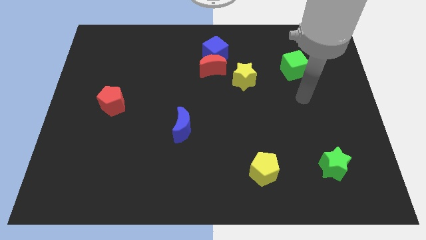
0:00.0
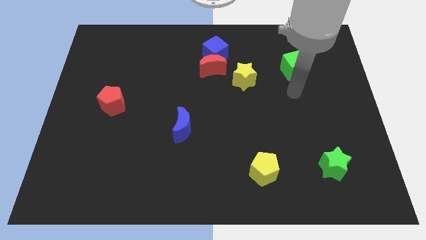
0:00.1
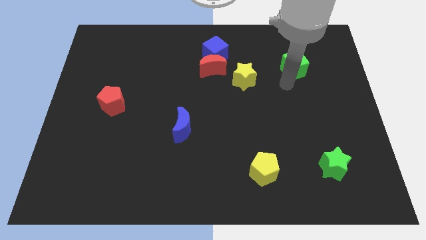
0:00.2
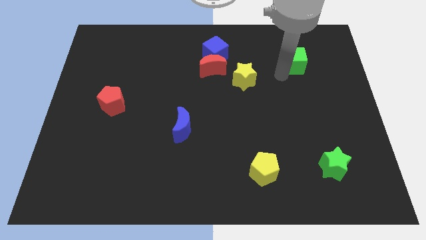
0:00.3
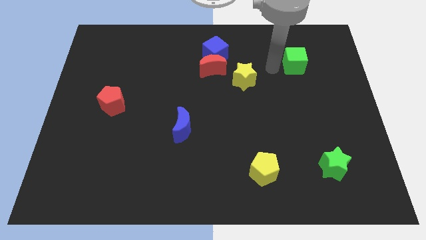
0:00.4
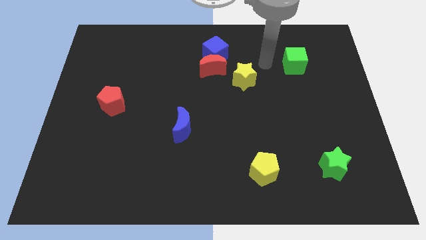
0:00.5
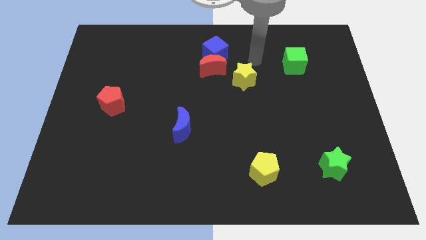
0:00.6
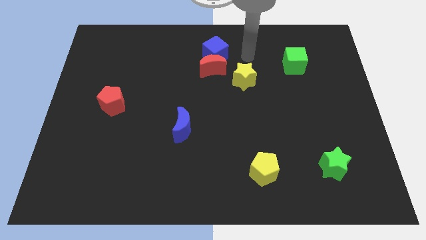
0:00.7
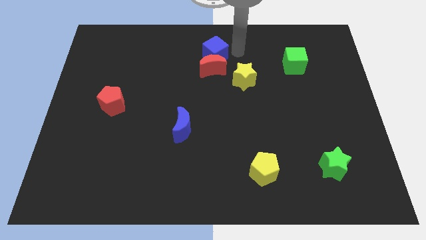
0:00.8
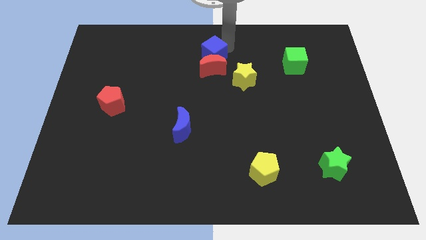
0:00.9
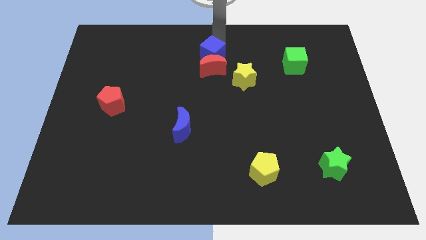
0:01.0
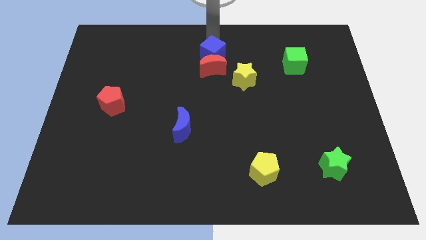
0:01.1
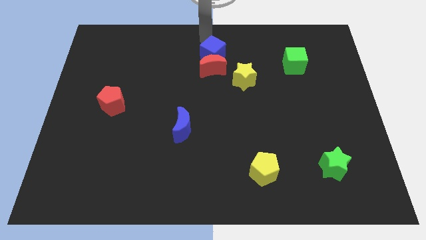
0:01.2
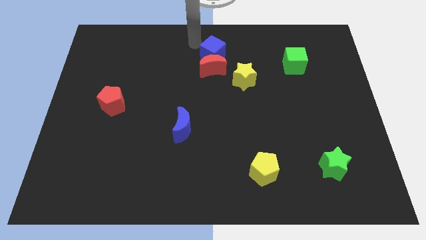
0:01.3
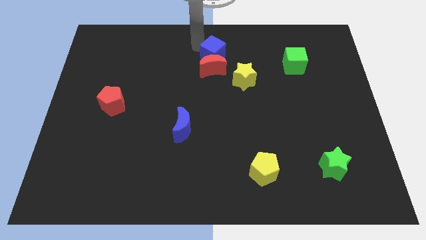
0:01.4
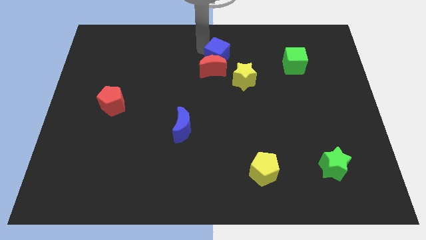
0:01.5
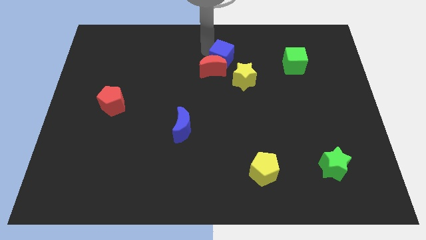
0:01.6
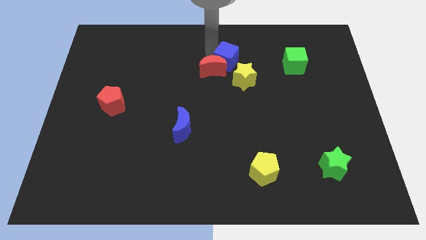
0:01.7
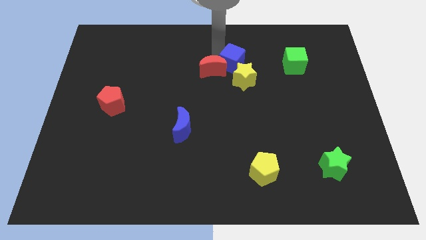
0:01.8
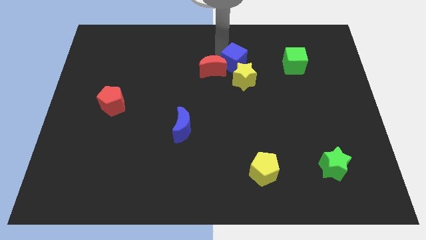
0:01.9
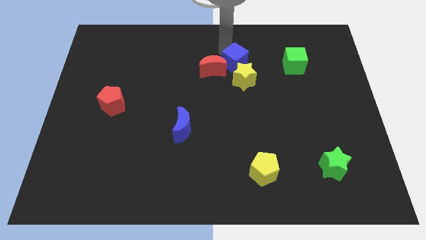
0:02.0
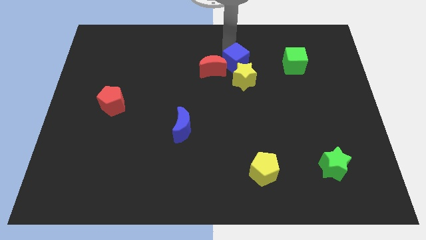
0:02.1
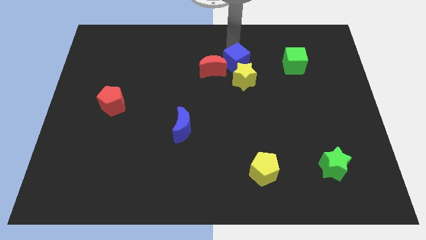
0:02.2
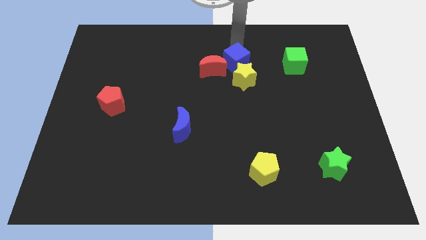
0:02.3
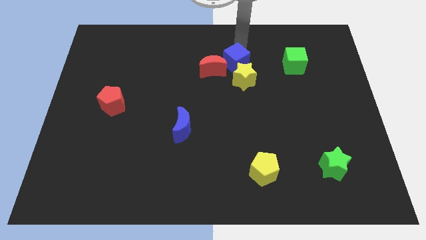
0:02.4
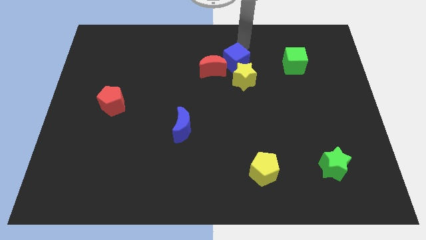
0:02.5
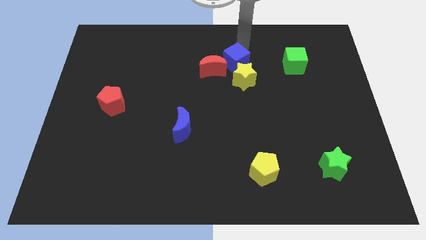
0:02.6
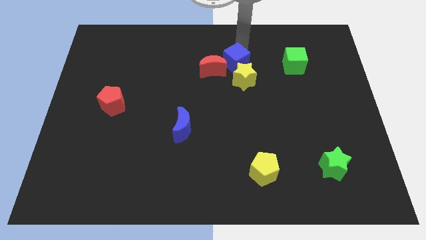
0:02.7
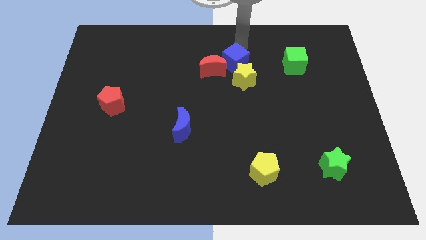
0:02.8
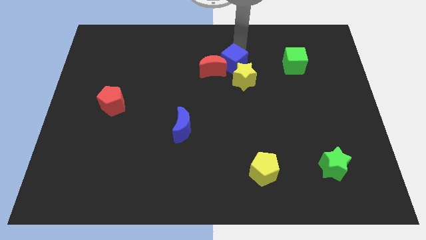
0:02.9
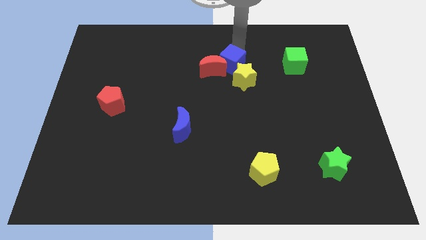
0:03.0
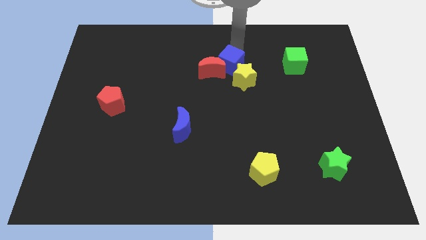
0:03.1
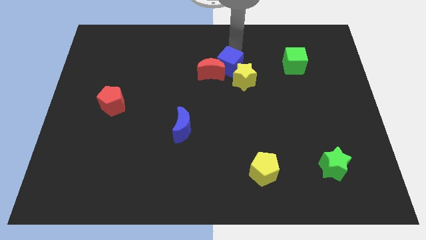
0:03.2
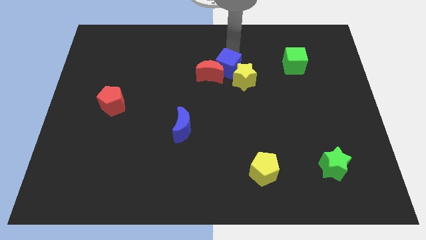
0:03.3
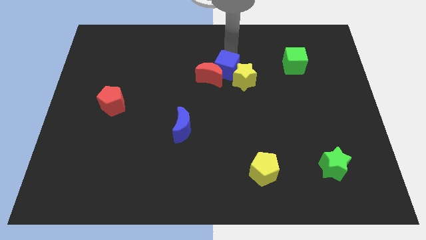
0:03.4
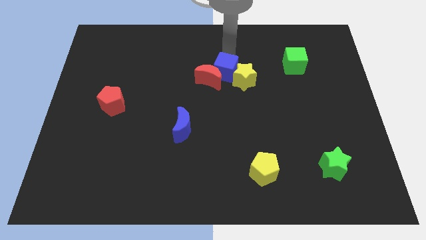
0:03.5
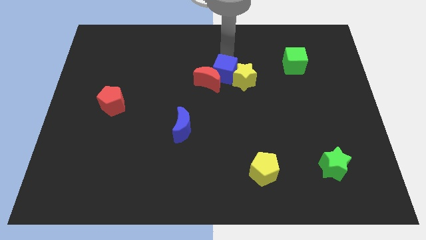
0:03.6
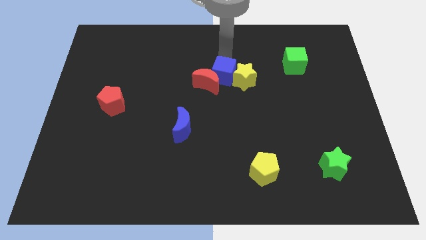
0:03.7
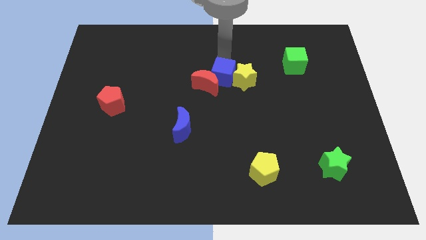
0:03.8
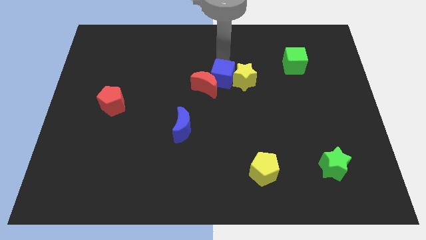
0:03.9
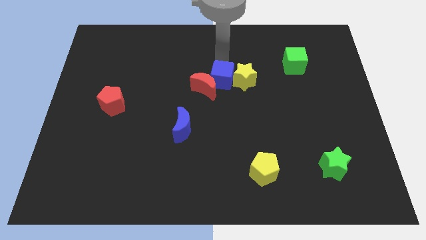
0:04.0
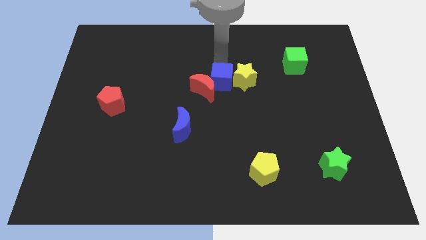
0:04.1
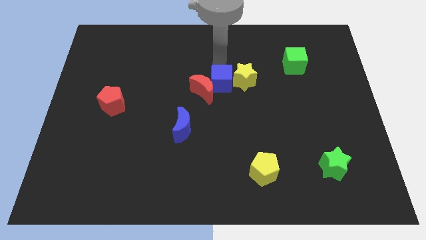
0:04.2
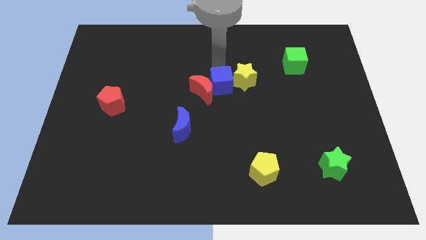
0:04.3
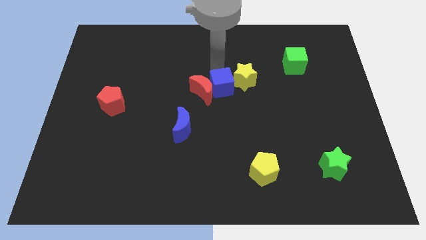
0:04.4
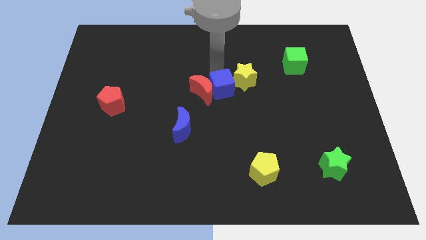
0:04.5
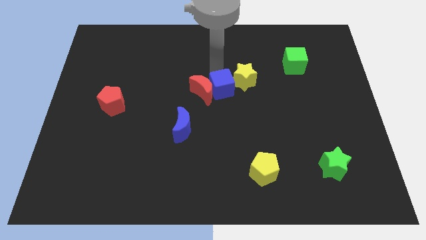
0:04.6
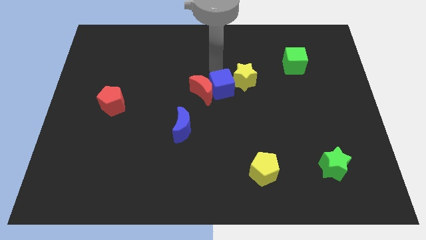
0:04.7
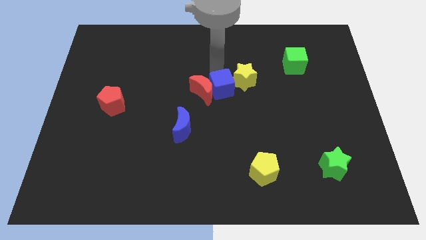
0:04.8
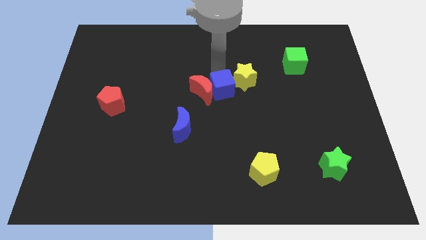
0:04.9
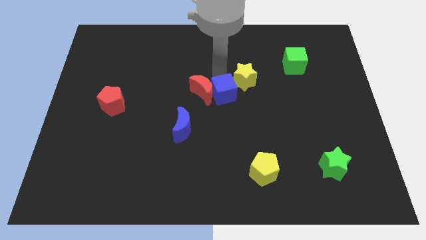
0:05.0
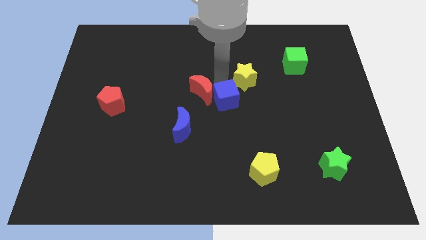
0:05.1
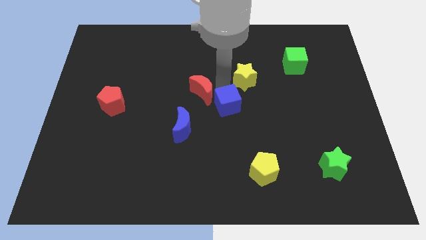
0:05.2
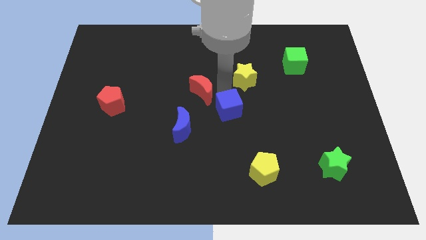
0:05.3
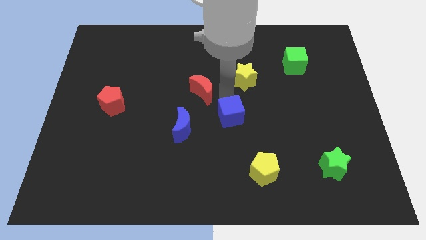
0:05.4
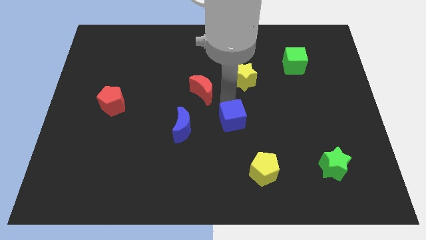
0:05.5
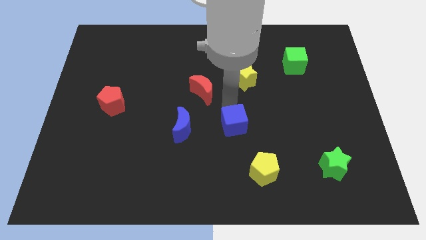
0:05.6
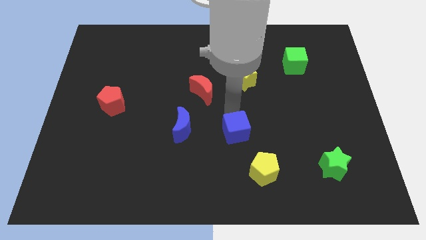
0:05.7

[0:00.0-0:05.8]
slide the blue cube to the top left side of the yellow pentagon

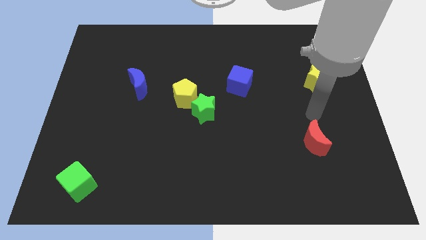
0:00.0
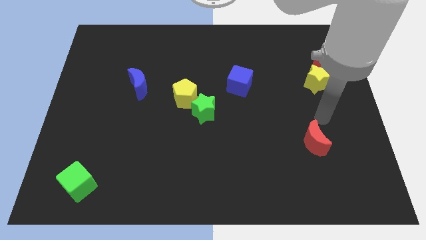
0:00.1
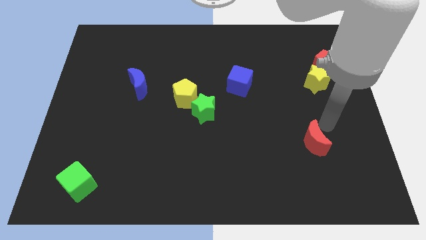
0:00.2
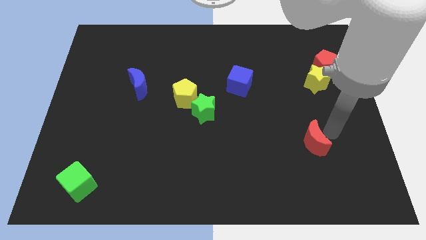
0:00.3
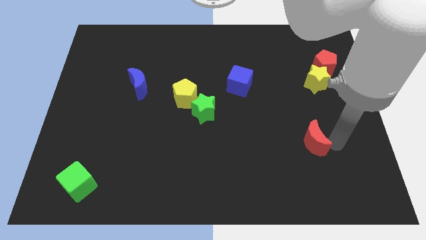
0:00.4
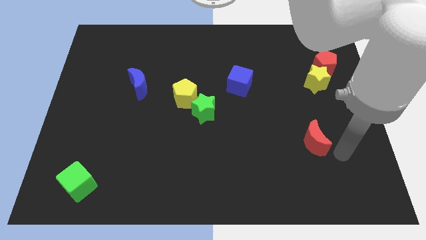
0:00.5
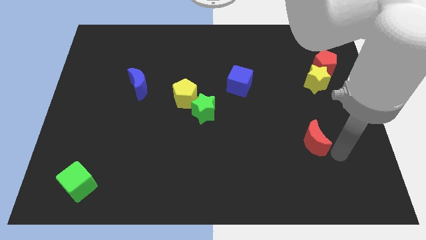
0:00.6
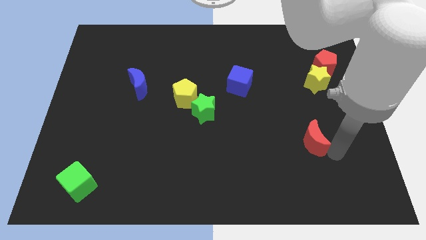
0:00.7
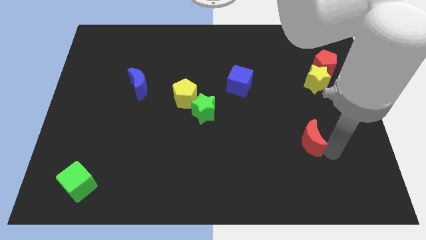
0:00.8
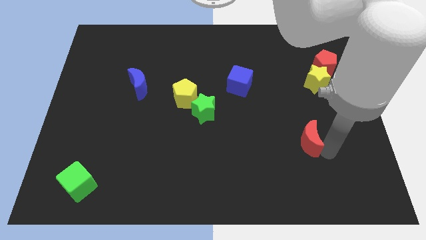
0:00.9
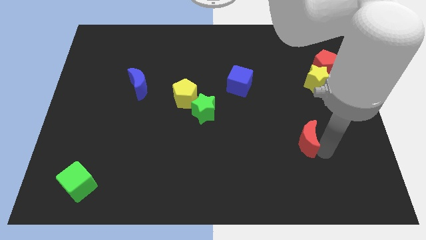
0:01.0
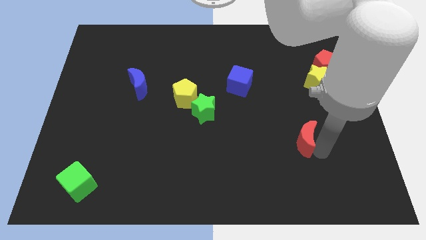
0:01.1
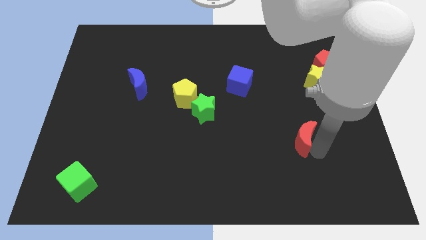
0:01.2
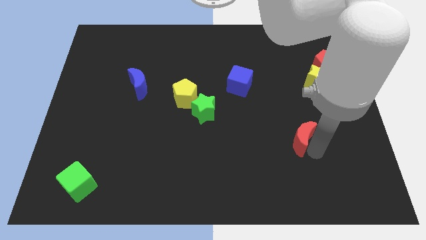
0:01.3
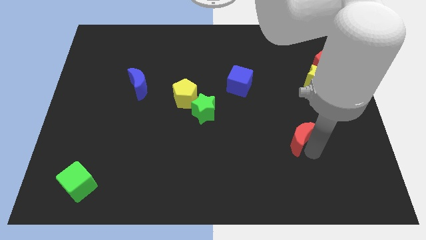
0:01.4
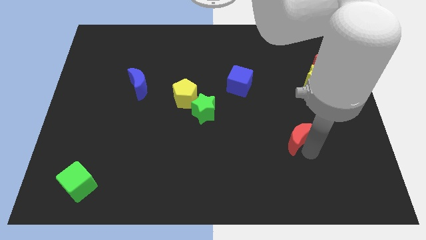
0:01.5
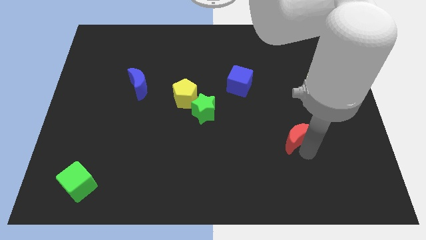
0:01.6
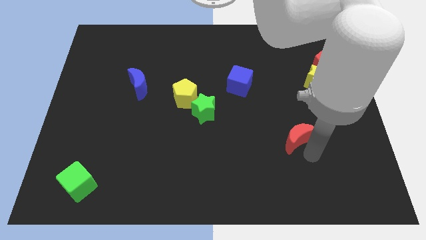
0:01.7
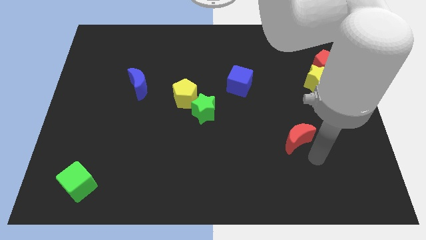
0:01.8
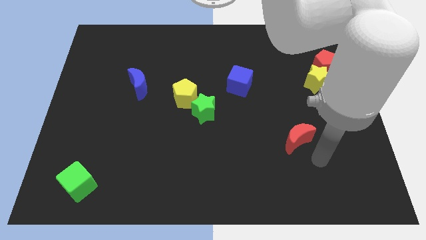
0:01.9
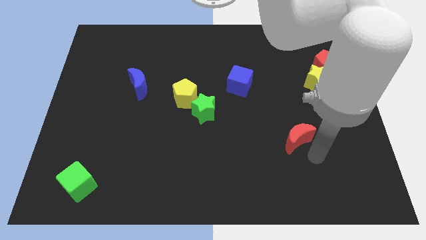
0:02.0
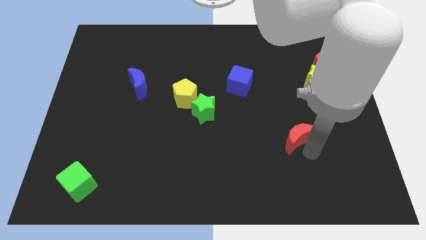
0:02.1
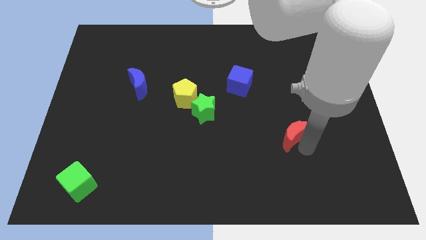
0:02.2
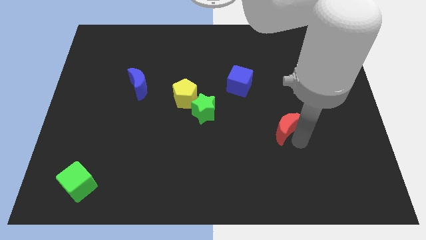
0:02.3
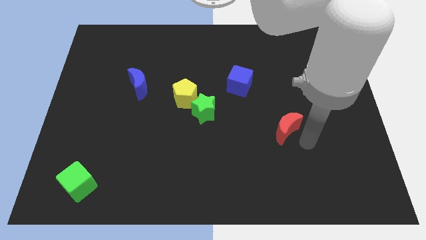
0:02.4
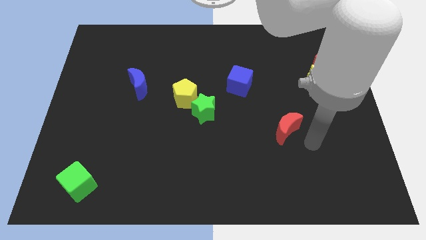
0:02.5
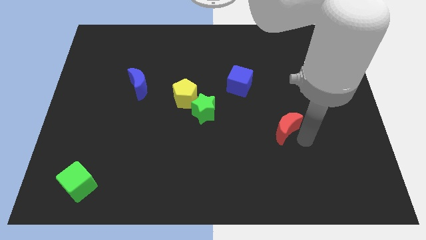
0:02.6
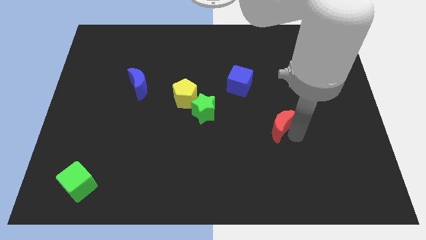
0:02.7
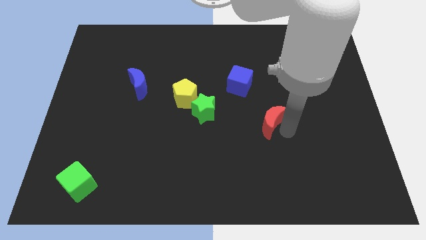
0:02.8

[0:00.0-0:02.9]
push the red moon right of the green star
